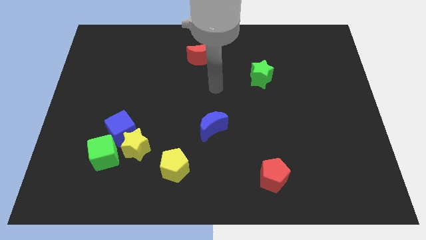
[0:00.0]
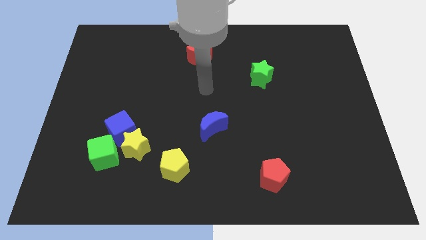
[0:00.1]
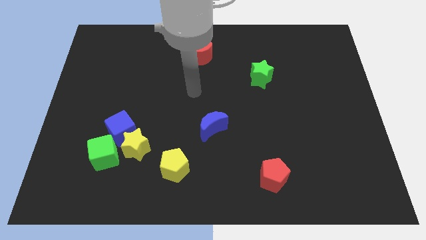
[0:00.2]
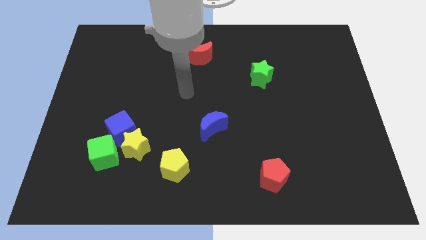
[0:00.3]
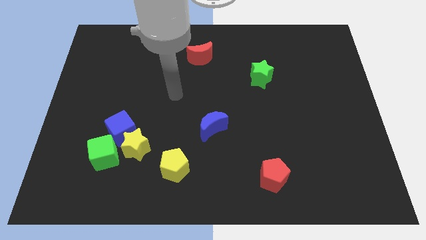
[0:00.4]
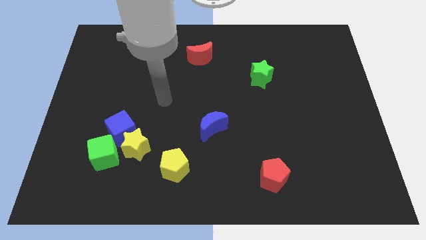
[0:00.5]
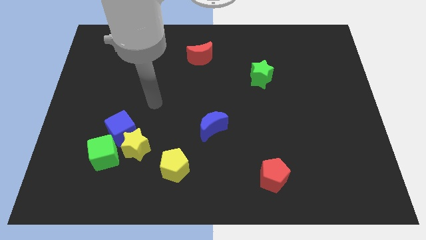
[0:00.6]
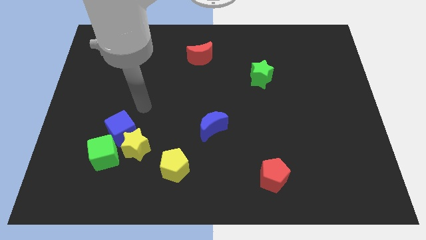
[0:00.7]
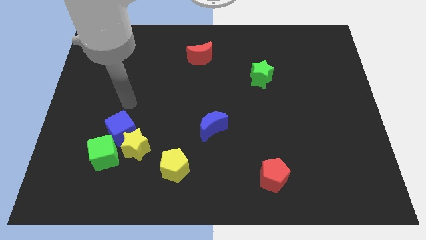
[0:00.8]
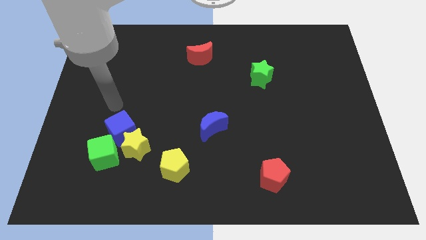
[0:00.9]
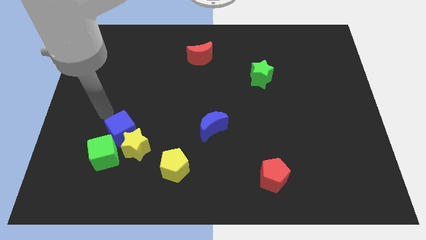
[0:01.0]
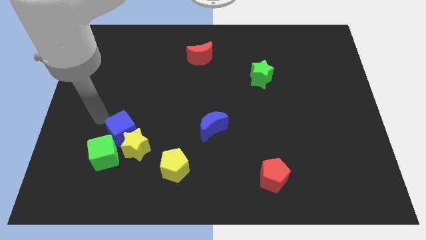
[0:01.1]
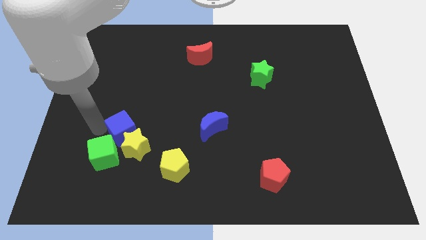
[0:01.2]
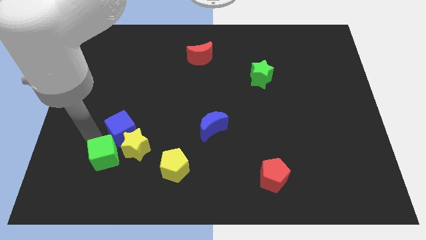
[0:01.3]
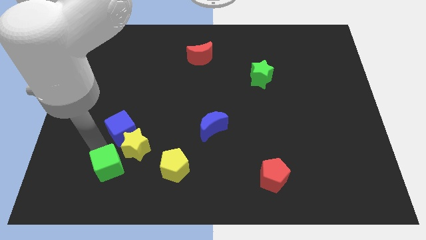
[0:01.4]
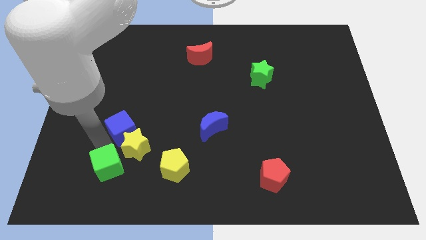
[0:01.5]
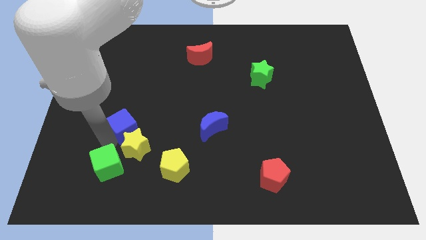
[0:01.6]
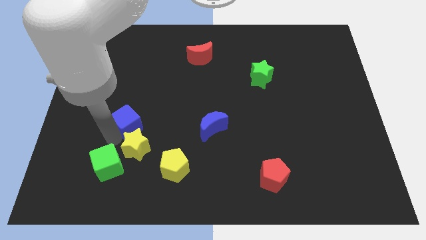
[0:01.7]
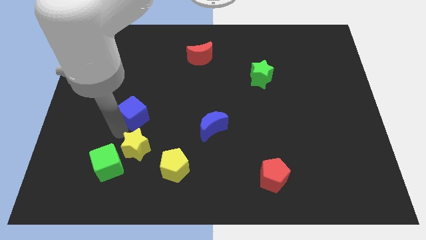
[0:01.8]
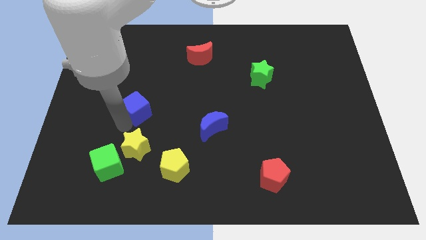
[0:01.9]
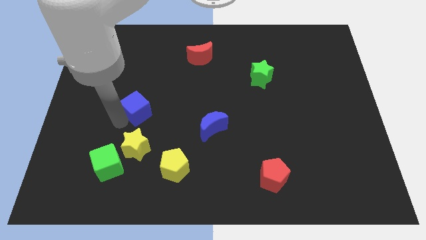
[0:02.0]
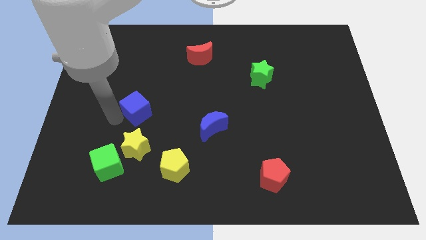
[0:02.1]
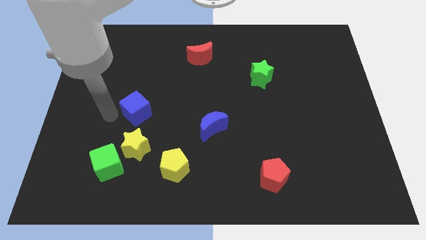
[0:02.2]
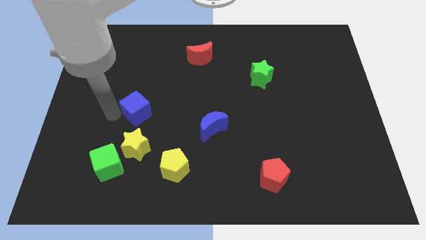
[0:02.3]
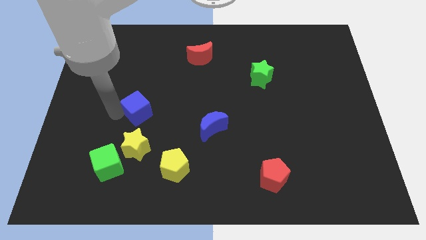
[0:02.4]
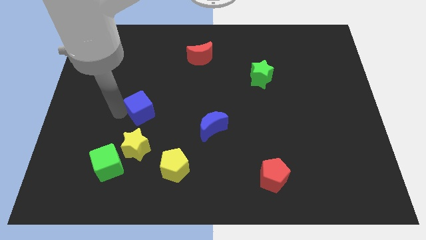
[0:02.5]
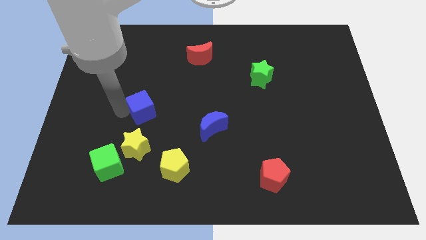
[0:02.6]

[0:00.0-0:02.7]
move the blue cube a little bit diagonally up and right

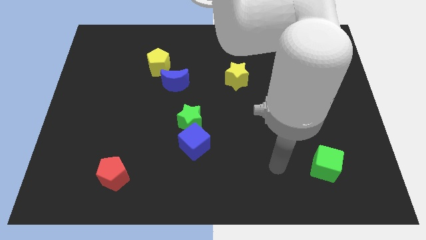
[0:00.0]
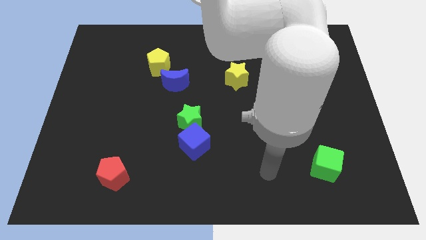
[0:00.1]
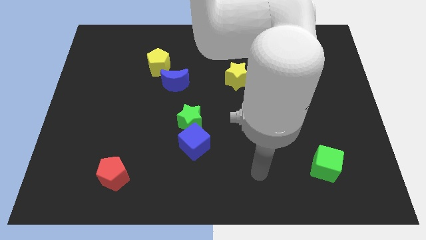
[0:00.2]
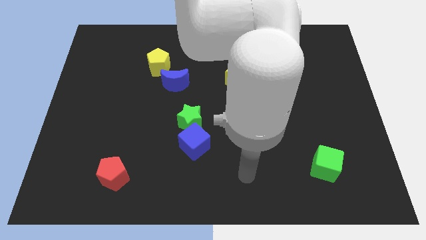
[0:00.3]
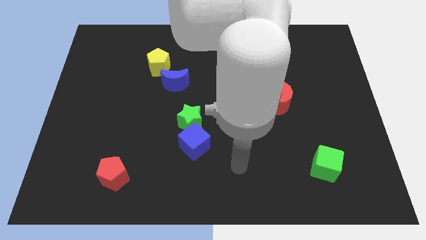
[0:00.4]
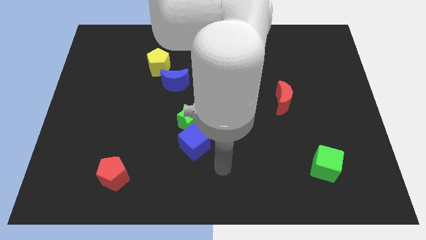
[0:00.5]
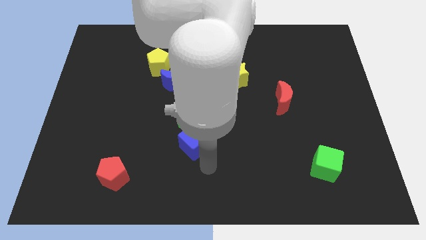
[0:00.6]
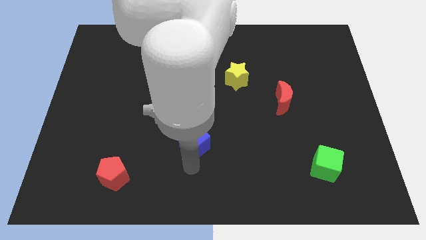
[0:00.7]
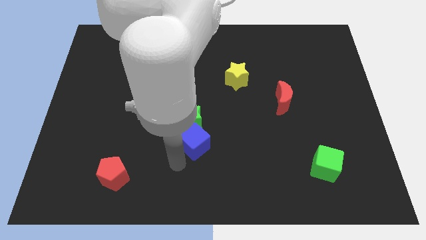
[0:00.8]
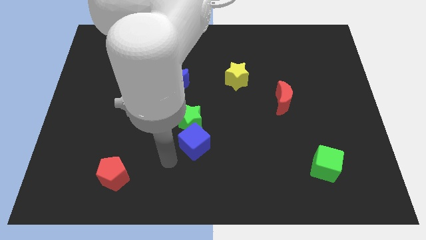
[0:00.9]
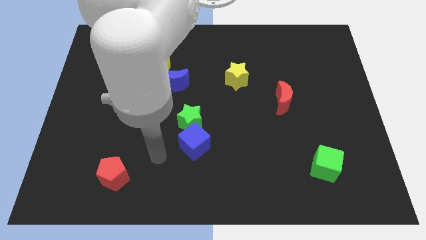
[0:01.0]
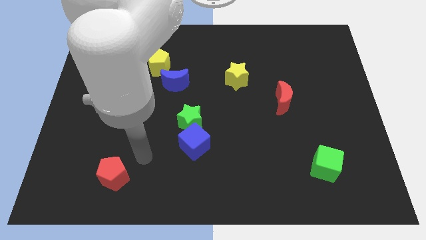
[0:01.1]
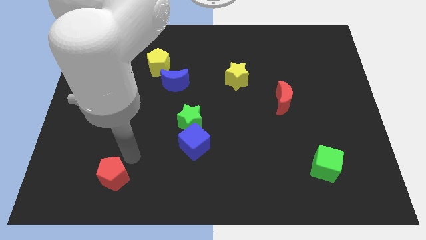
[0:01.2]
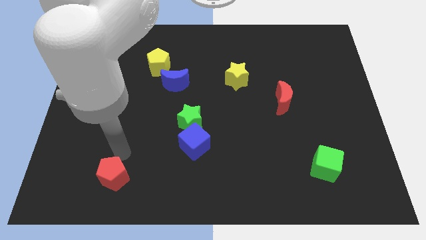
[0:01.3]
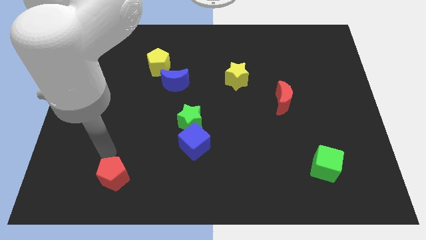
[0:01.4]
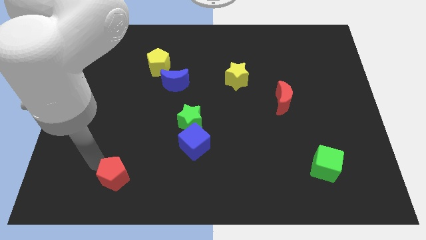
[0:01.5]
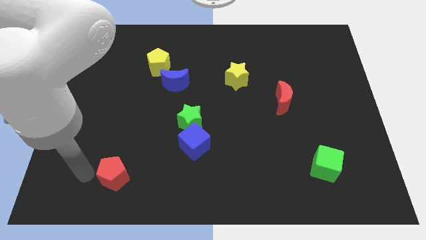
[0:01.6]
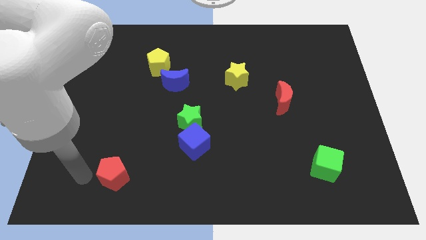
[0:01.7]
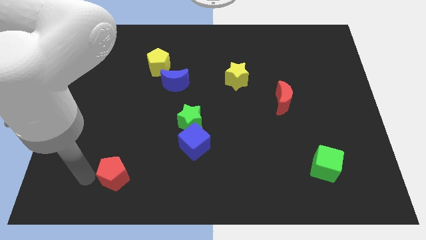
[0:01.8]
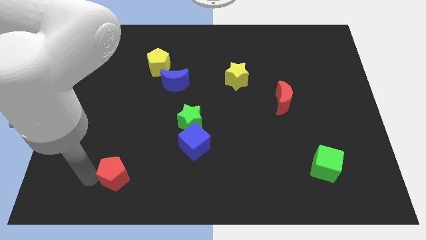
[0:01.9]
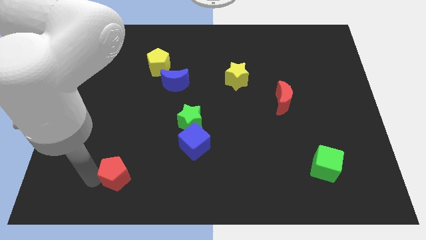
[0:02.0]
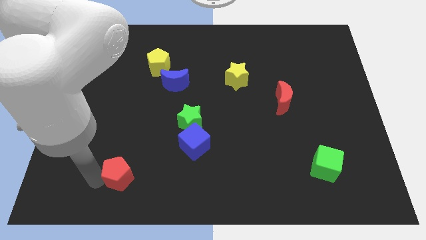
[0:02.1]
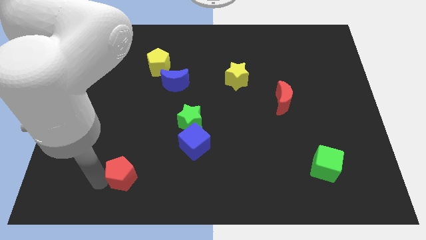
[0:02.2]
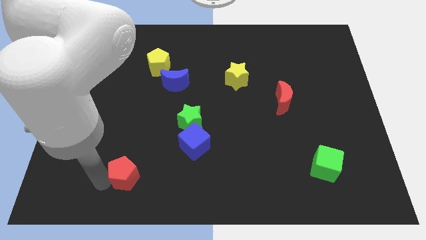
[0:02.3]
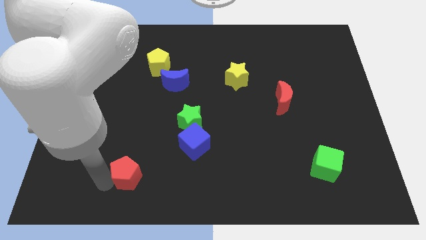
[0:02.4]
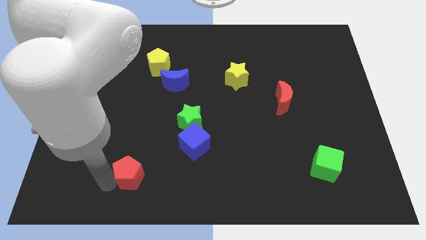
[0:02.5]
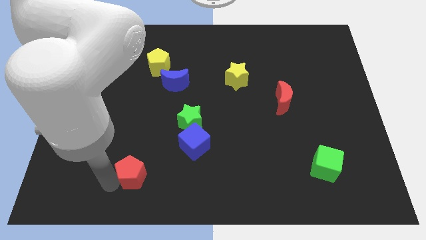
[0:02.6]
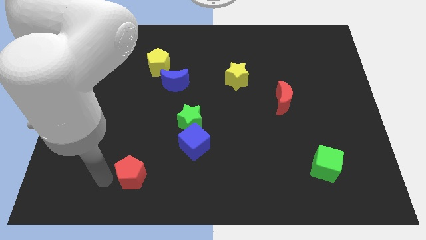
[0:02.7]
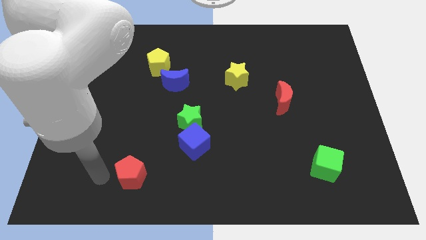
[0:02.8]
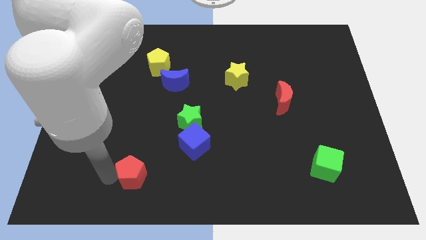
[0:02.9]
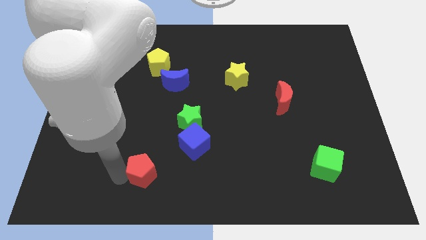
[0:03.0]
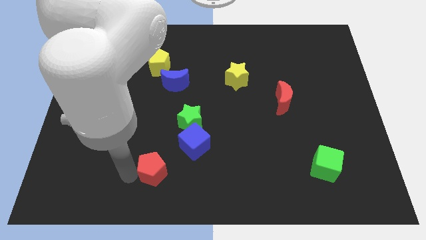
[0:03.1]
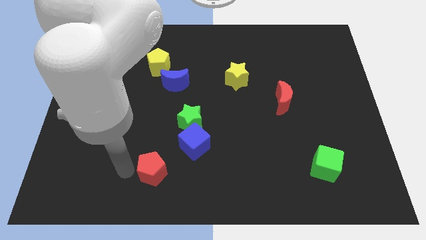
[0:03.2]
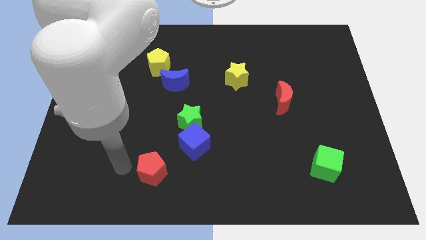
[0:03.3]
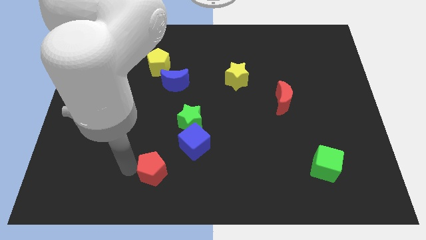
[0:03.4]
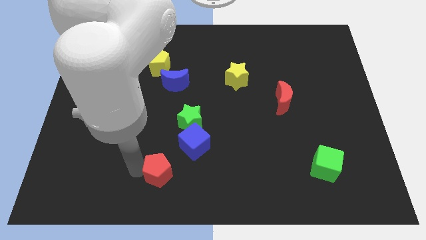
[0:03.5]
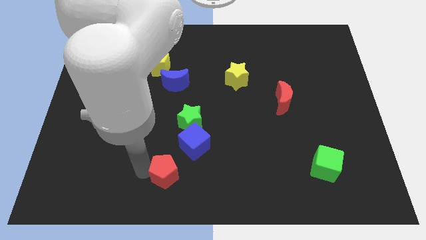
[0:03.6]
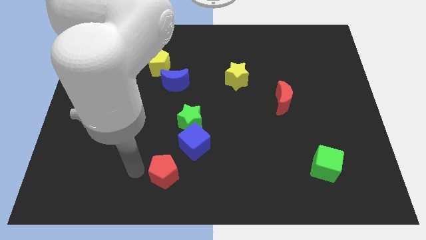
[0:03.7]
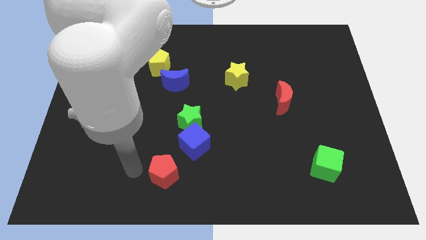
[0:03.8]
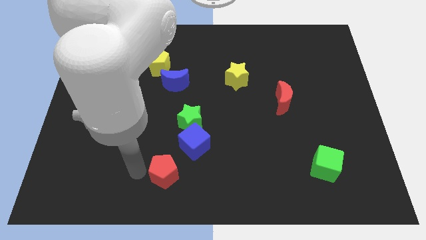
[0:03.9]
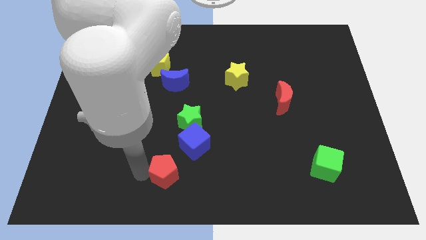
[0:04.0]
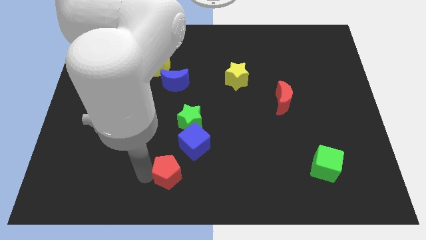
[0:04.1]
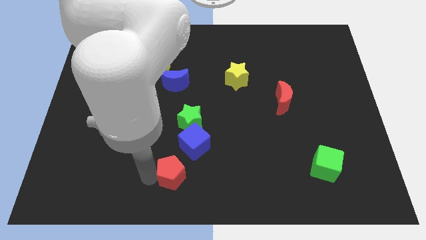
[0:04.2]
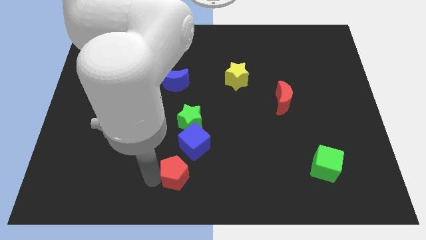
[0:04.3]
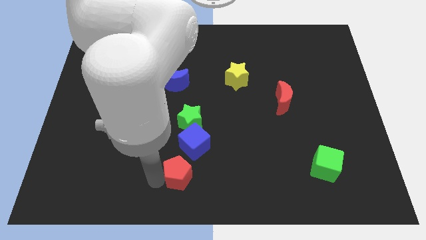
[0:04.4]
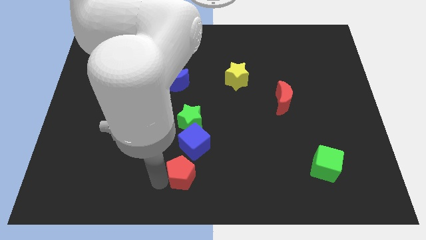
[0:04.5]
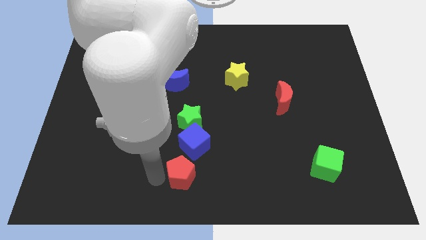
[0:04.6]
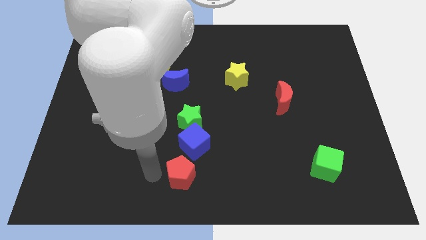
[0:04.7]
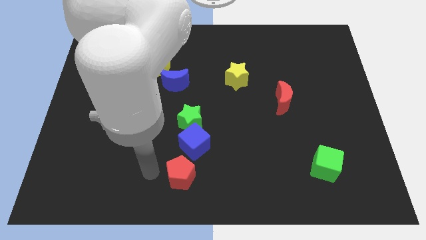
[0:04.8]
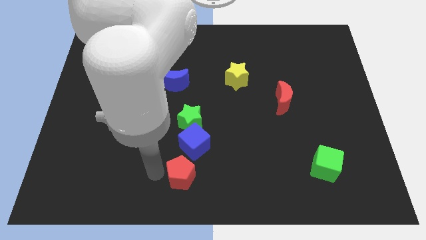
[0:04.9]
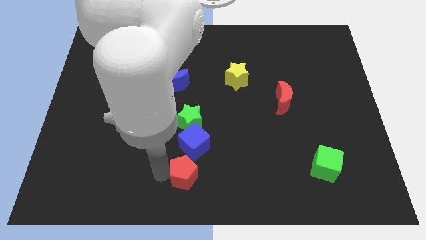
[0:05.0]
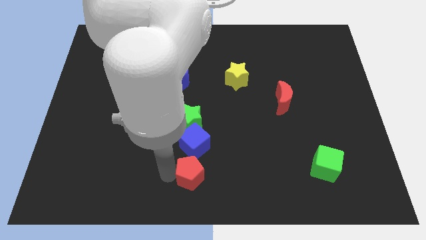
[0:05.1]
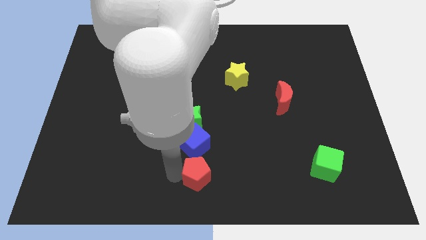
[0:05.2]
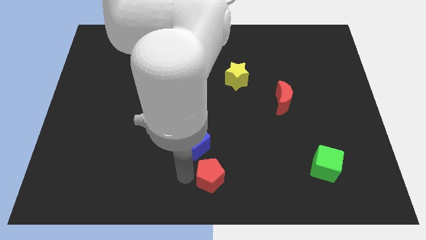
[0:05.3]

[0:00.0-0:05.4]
move the red pentagon right
